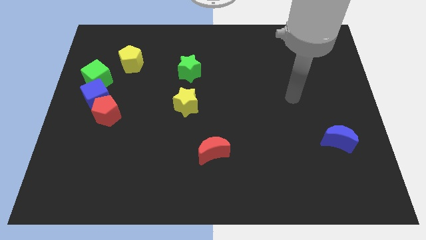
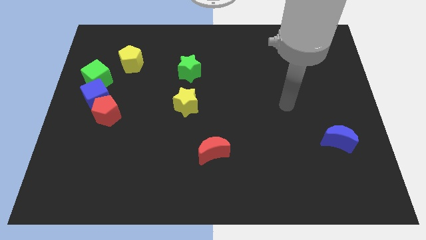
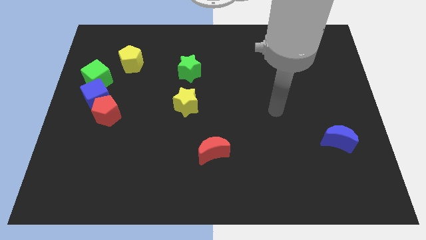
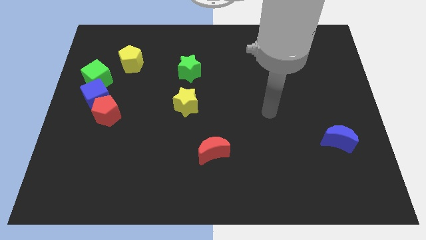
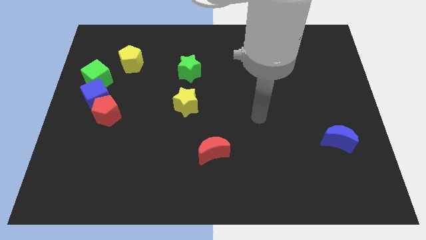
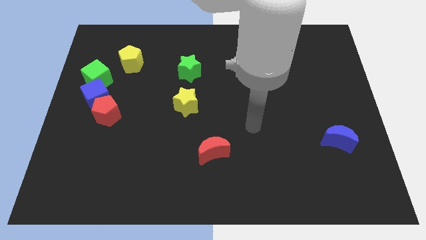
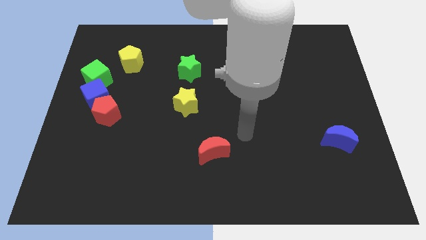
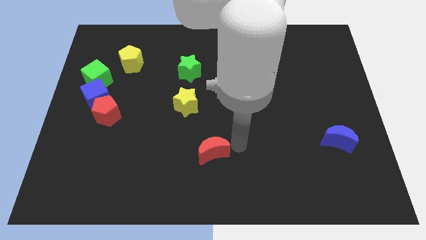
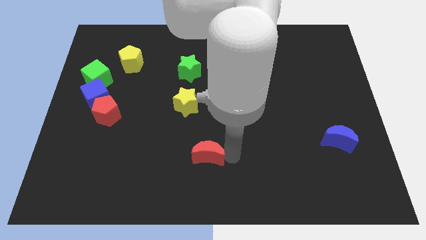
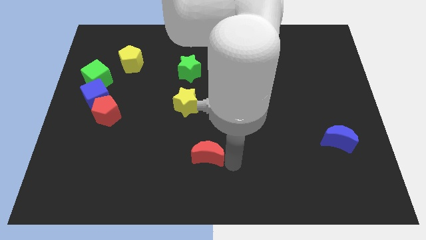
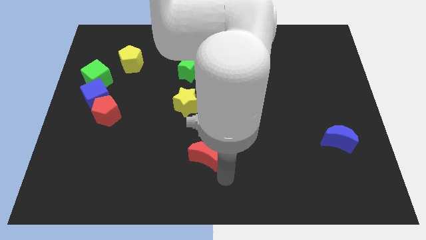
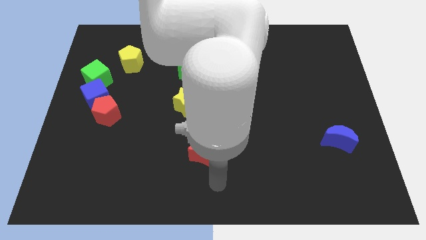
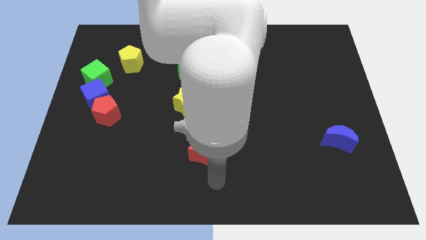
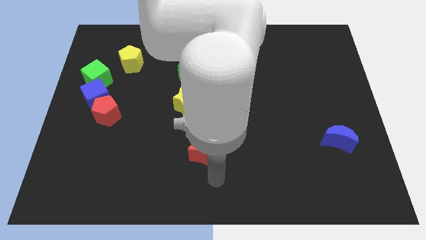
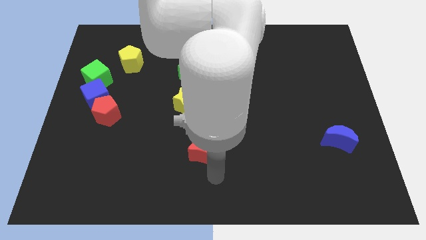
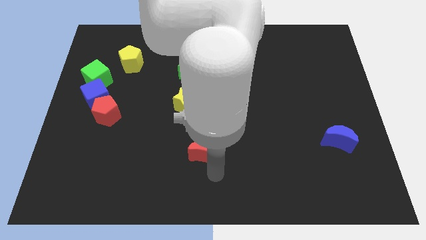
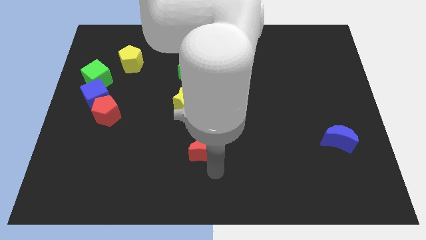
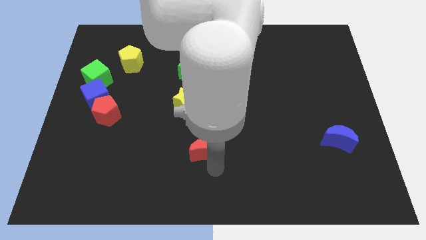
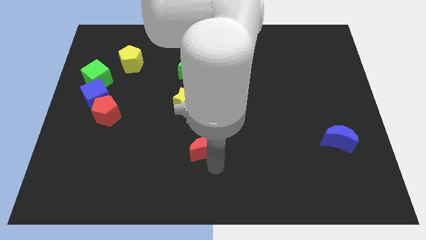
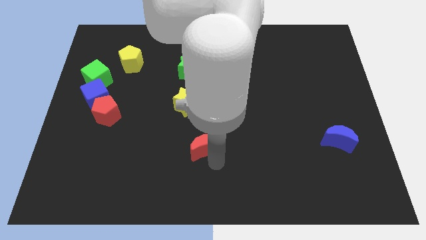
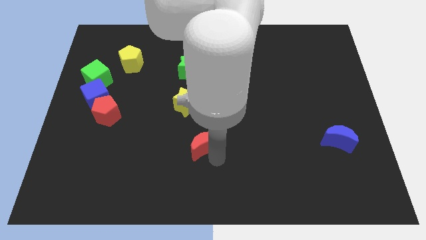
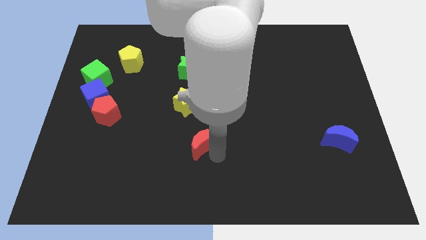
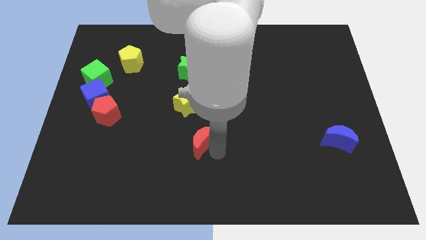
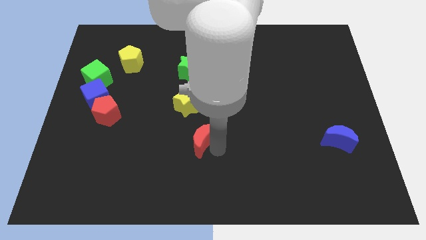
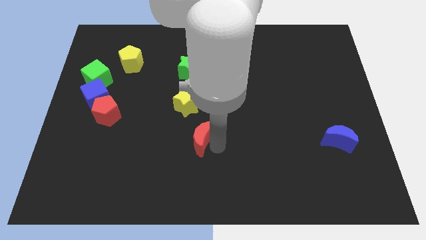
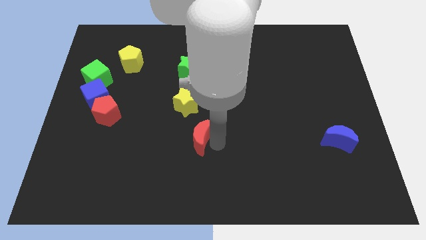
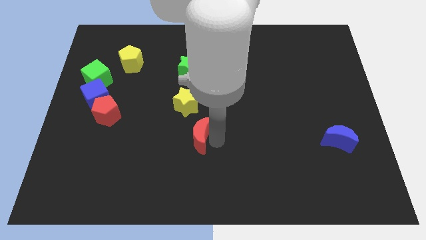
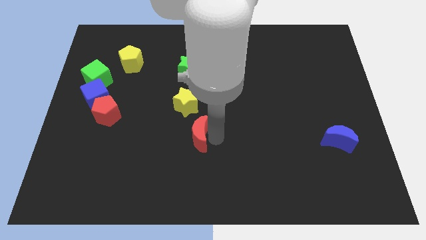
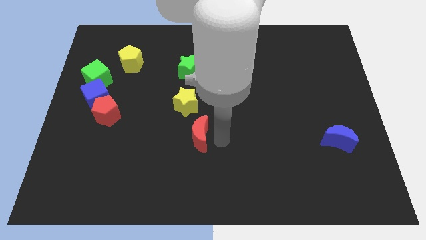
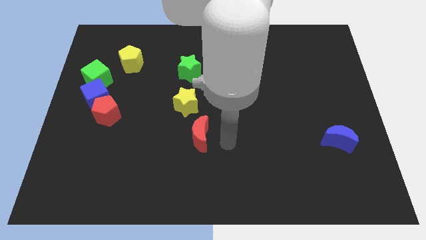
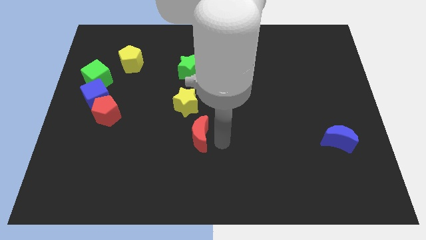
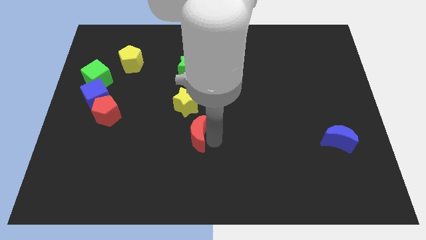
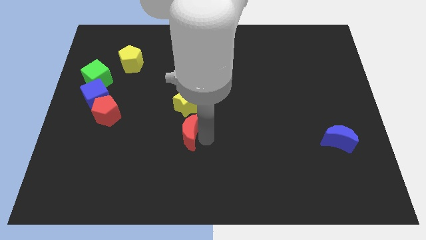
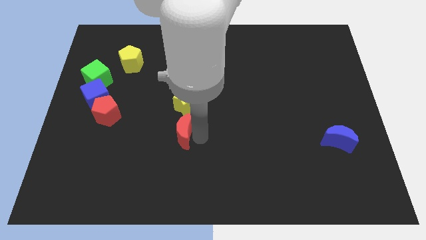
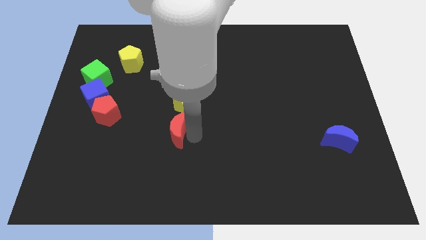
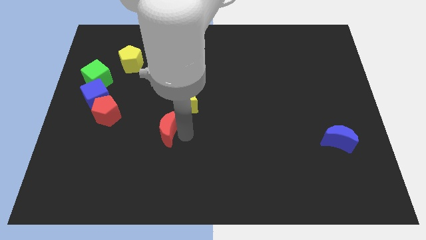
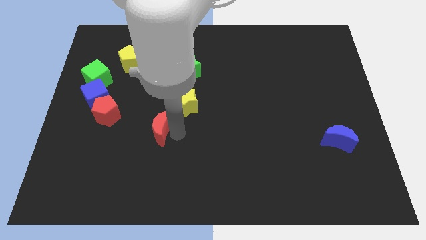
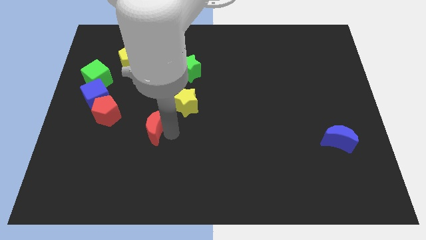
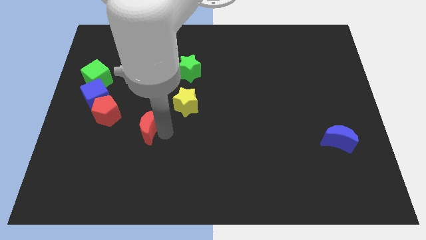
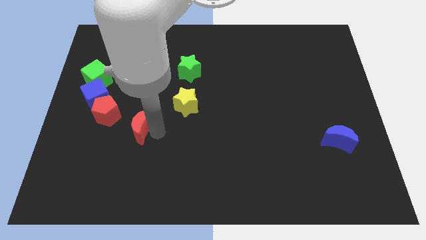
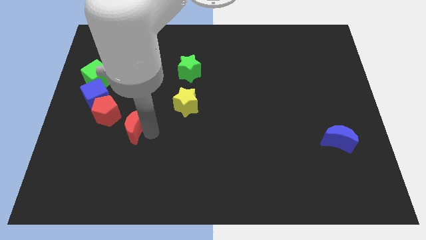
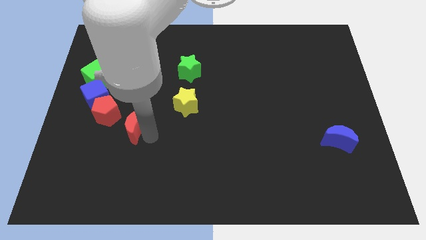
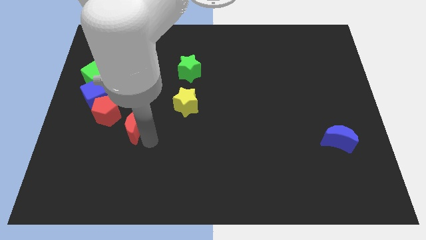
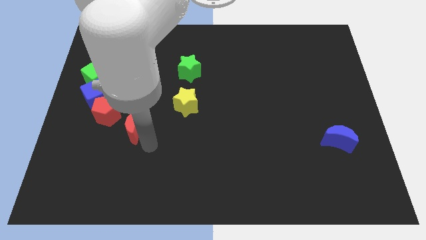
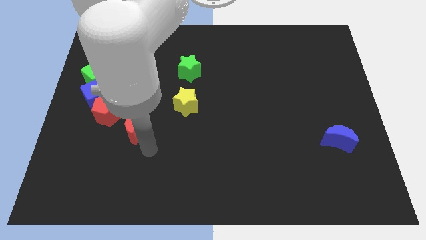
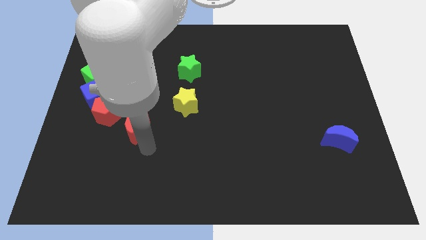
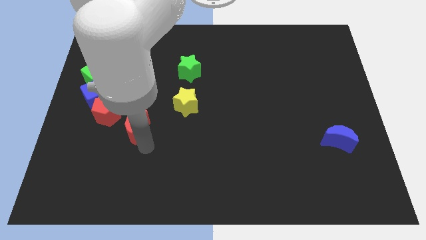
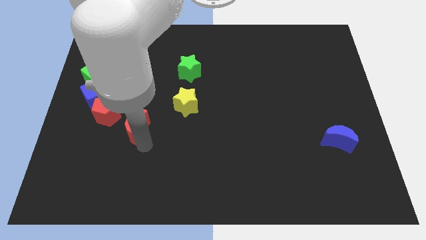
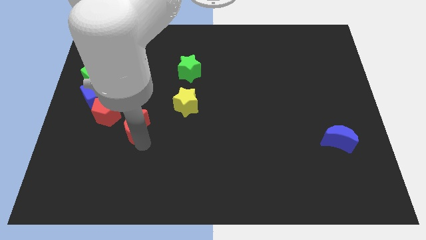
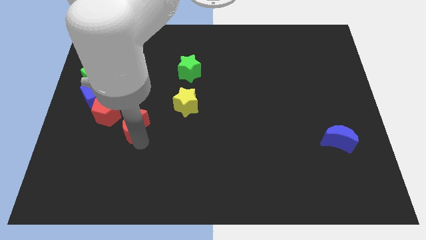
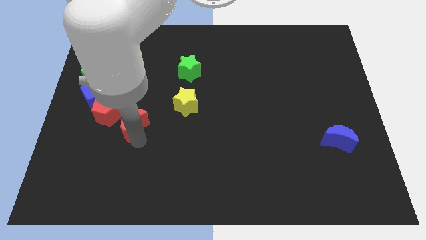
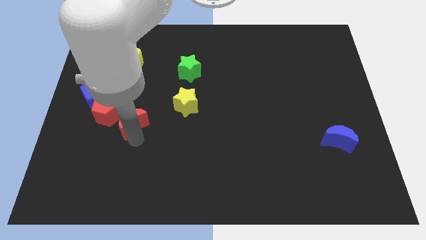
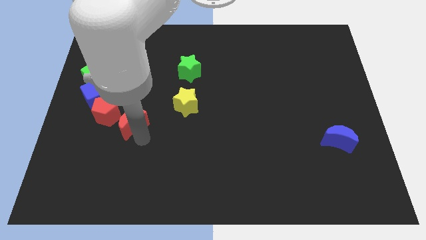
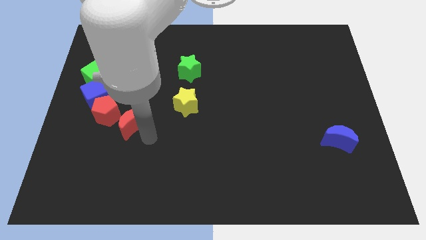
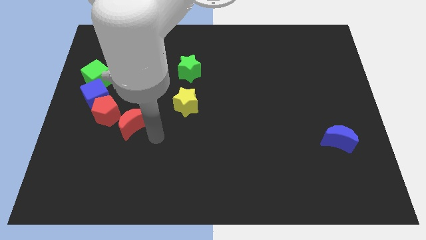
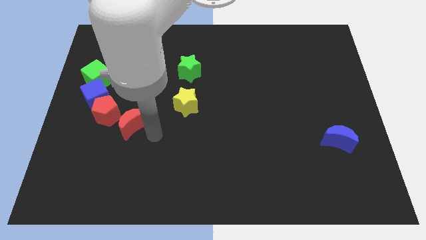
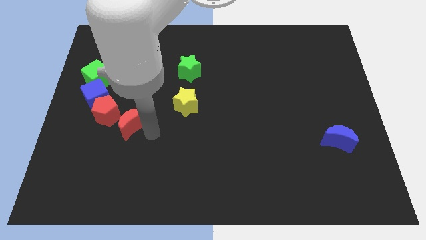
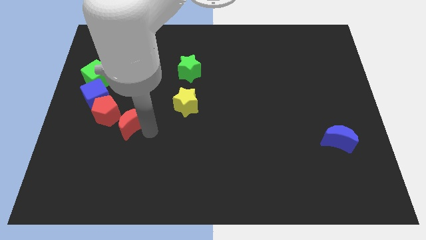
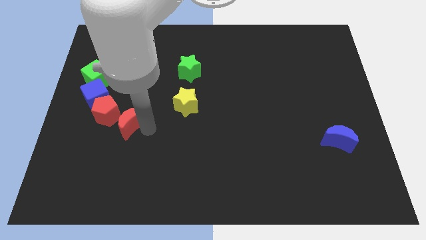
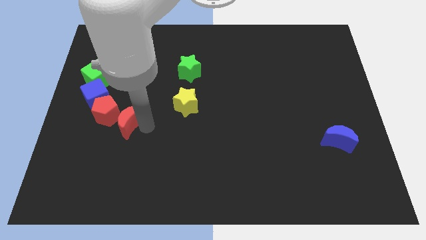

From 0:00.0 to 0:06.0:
push the red moon to the red pentagon

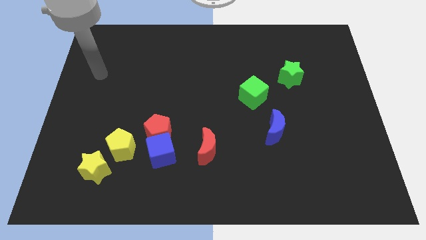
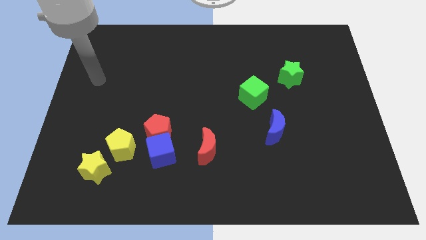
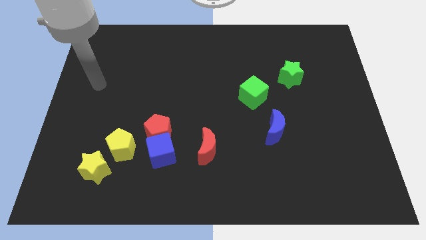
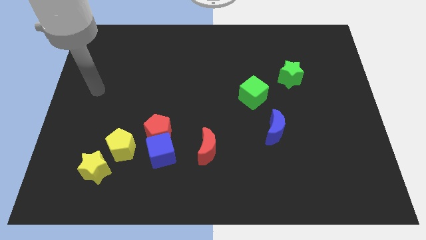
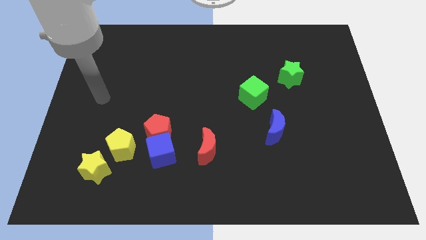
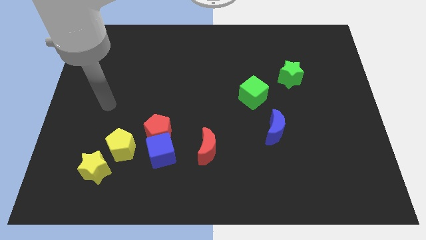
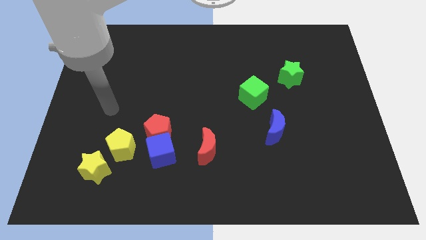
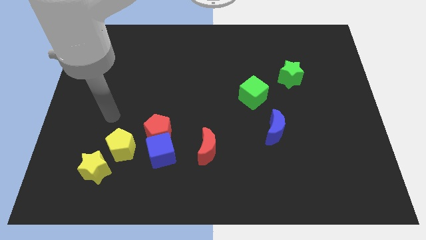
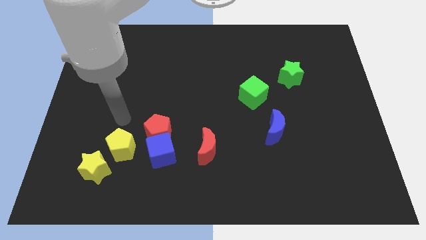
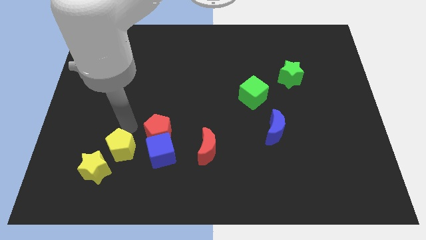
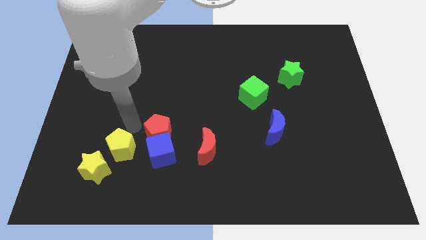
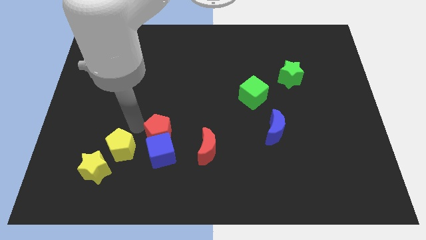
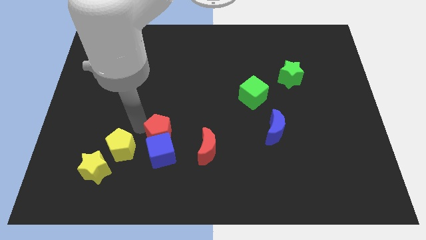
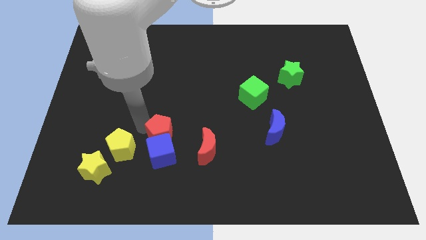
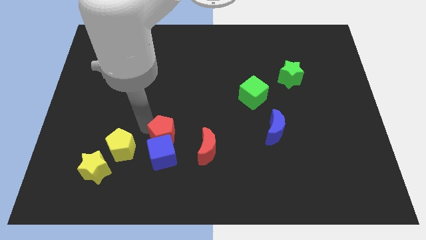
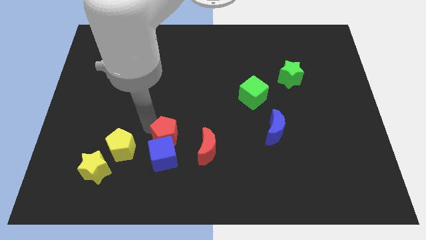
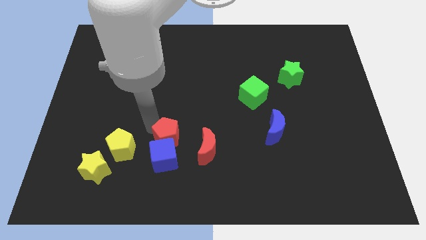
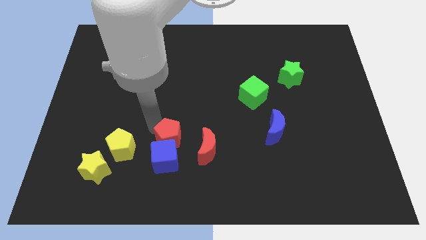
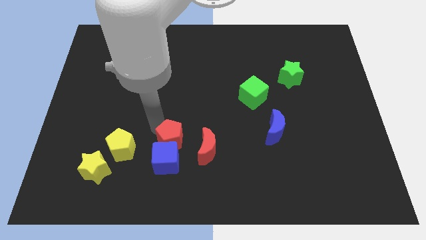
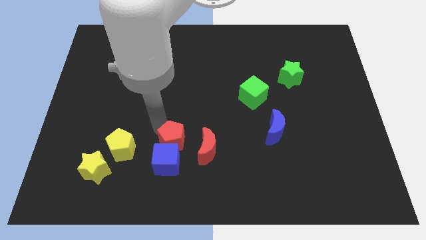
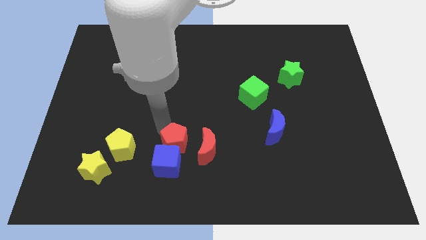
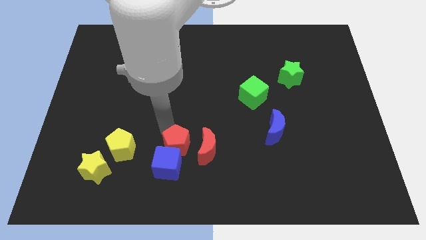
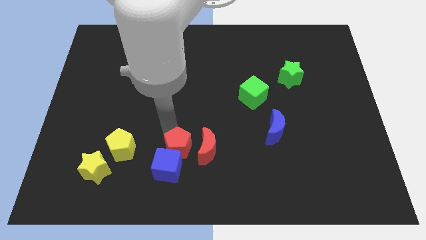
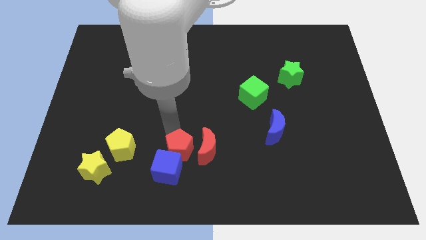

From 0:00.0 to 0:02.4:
push the red pentagon towards the red moon
